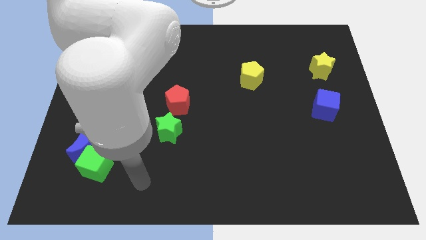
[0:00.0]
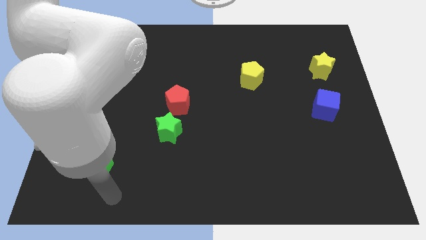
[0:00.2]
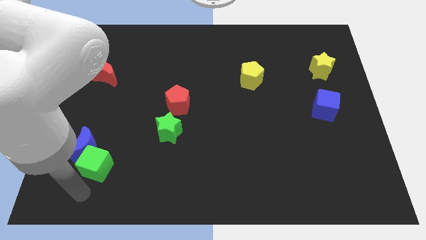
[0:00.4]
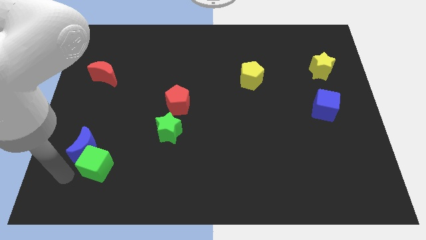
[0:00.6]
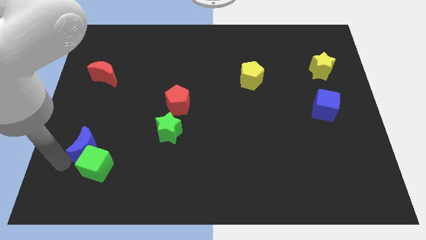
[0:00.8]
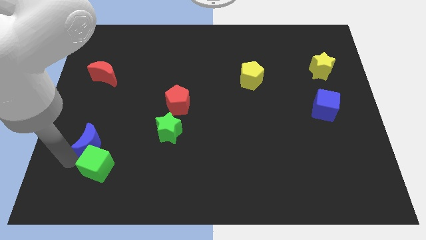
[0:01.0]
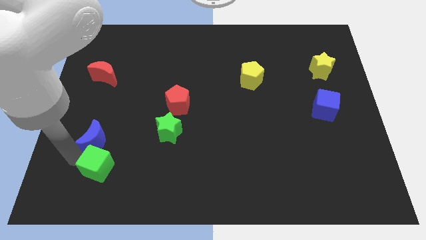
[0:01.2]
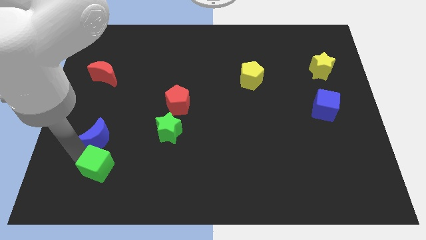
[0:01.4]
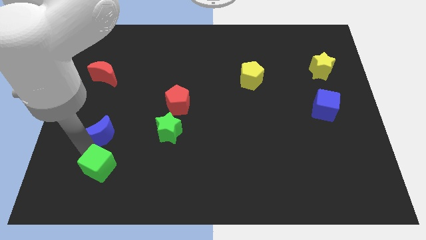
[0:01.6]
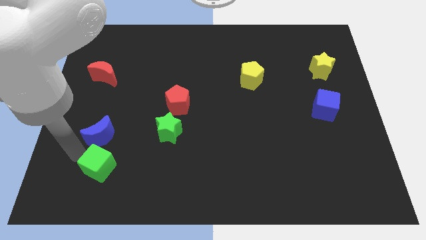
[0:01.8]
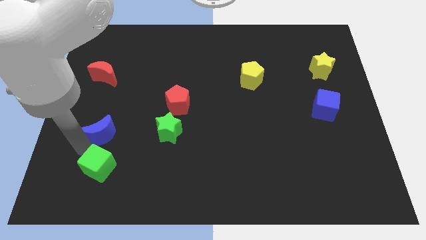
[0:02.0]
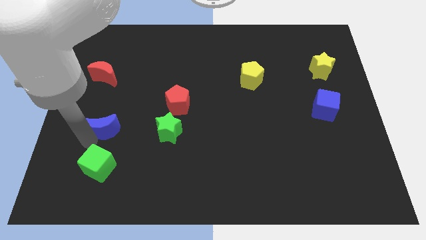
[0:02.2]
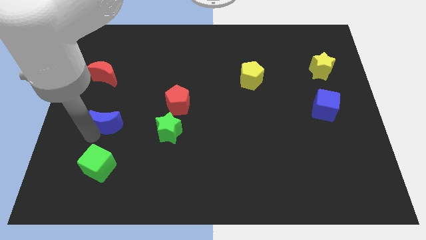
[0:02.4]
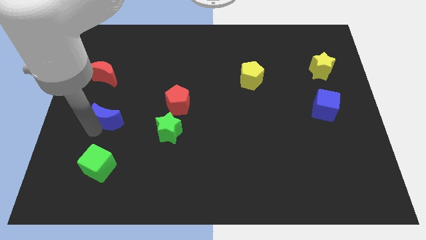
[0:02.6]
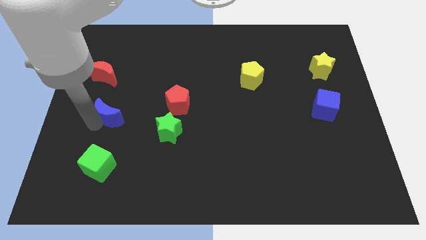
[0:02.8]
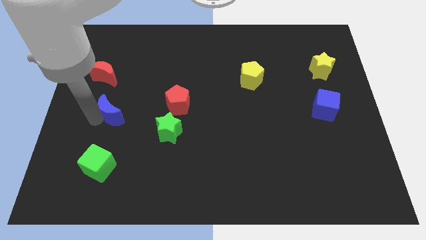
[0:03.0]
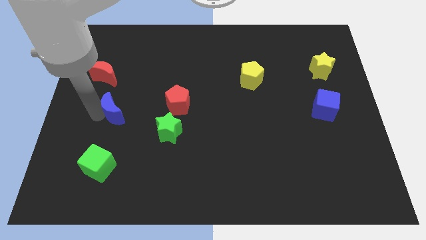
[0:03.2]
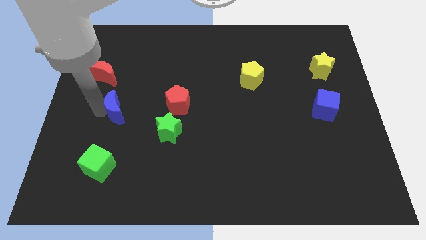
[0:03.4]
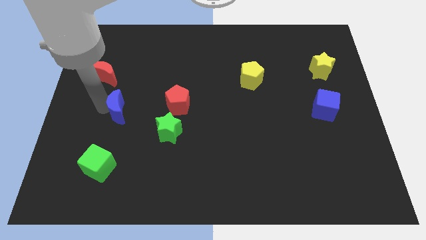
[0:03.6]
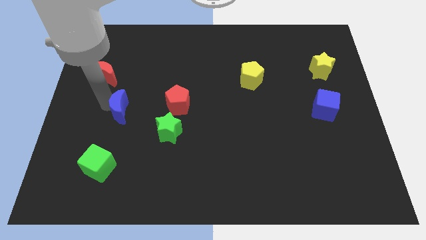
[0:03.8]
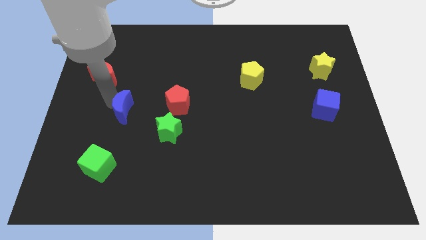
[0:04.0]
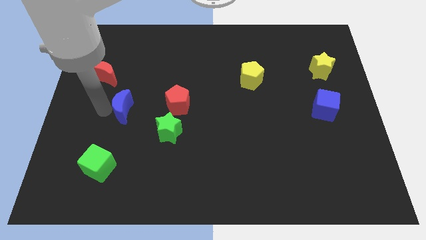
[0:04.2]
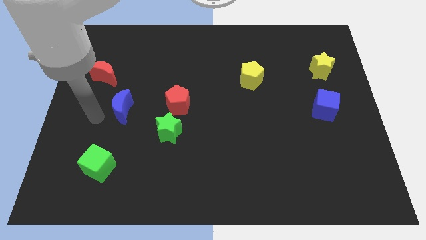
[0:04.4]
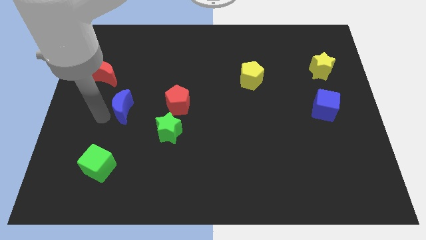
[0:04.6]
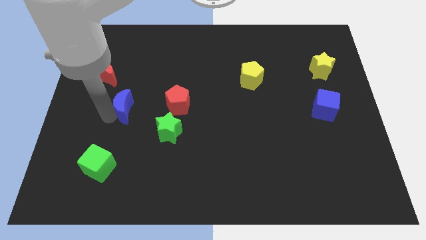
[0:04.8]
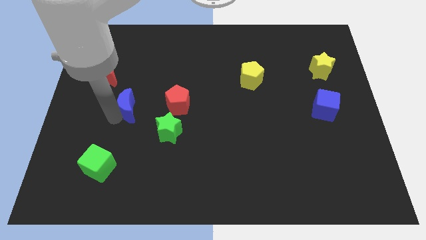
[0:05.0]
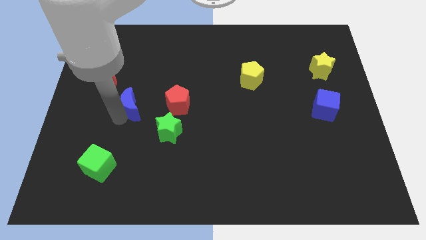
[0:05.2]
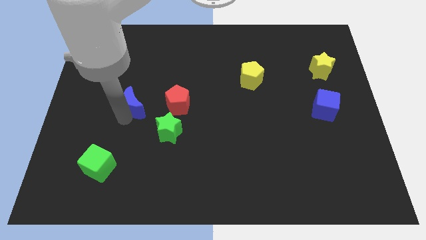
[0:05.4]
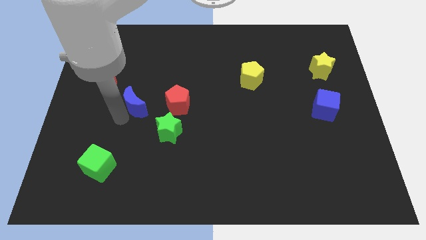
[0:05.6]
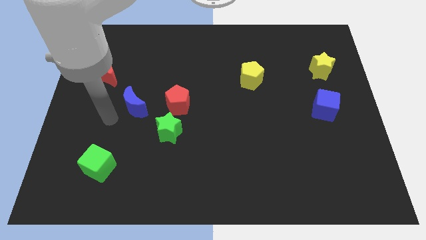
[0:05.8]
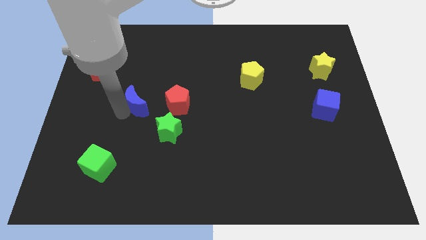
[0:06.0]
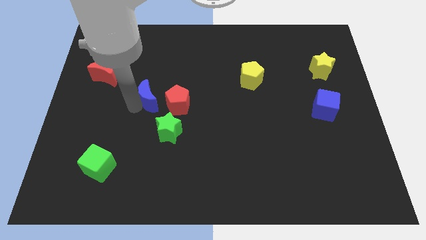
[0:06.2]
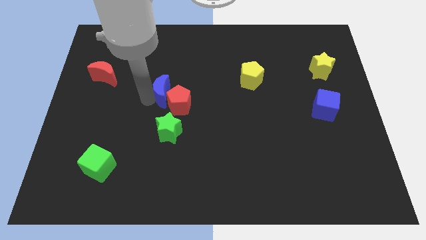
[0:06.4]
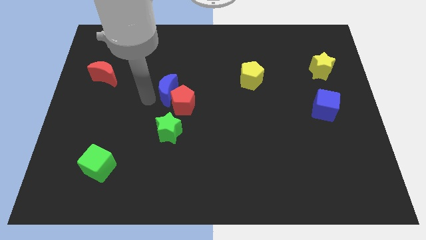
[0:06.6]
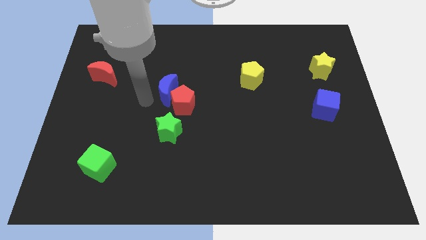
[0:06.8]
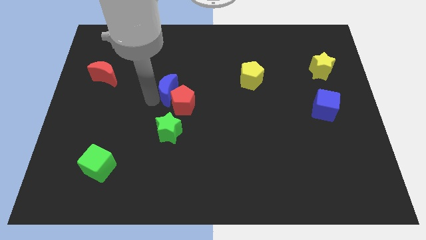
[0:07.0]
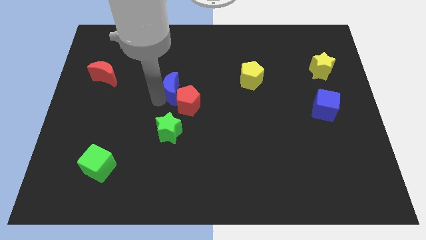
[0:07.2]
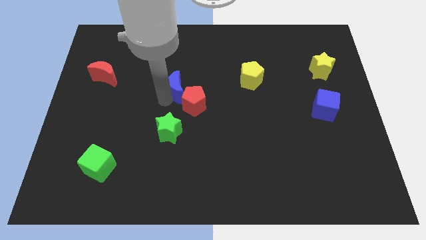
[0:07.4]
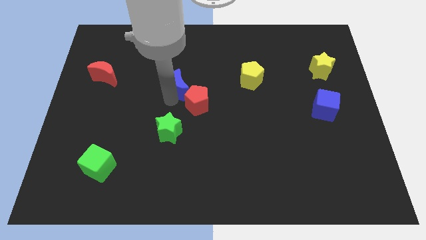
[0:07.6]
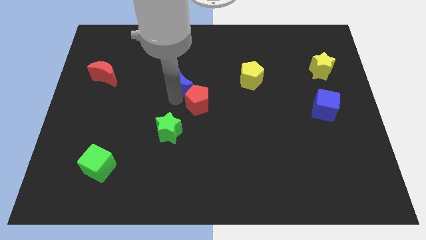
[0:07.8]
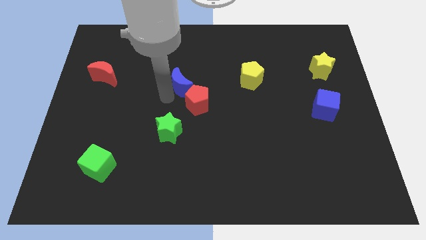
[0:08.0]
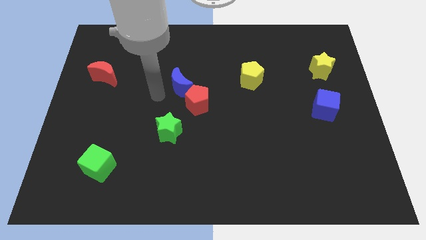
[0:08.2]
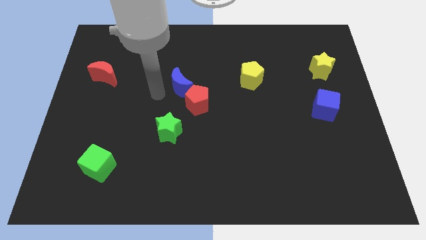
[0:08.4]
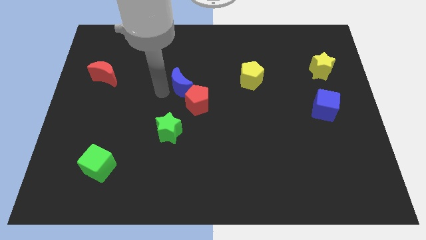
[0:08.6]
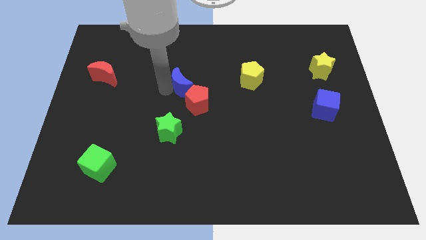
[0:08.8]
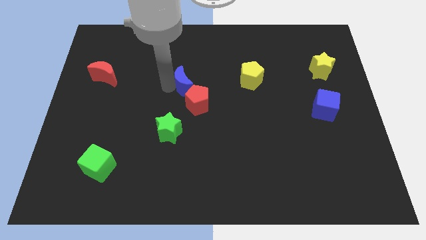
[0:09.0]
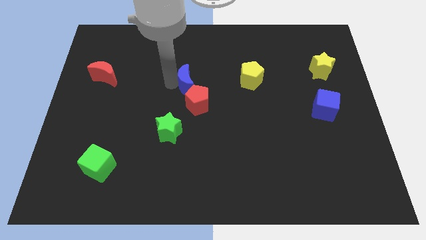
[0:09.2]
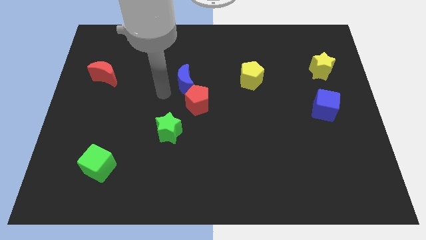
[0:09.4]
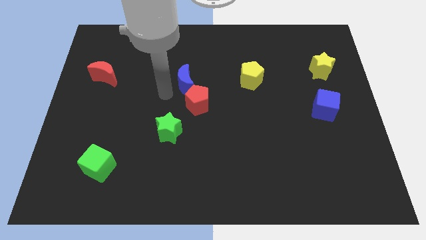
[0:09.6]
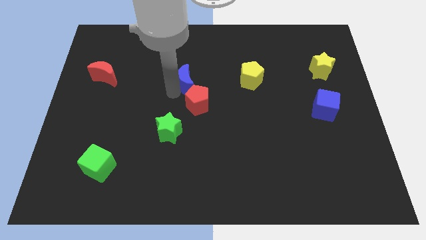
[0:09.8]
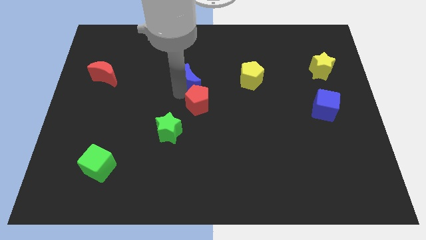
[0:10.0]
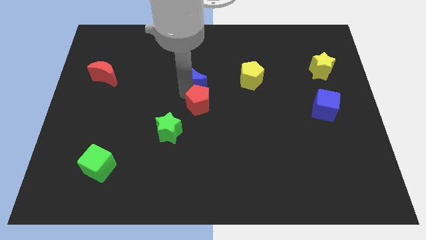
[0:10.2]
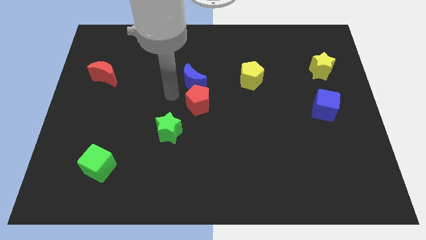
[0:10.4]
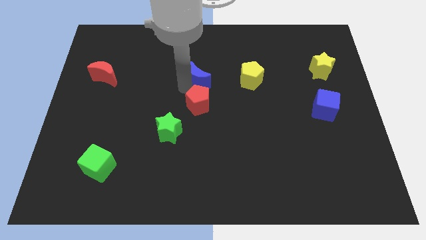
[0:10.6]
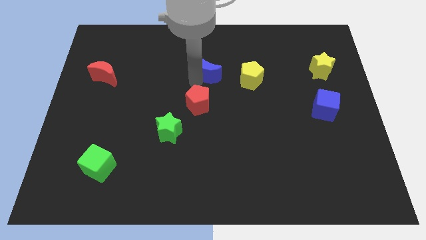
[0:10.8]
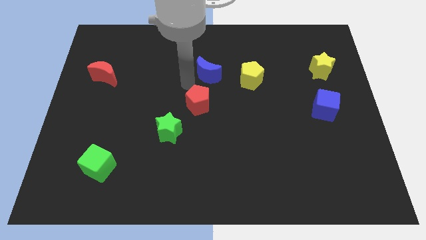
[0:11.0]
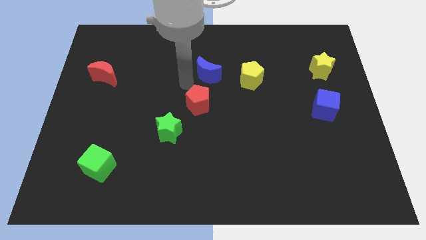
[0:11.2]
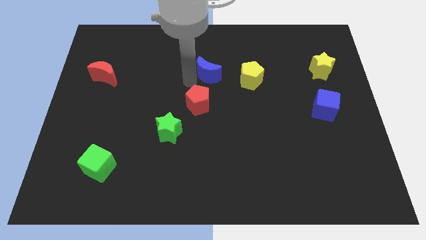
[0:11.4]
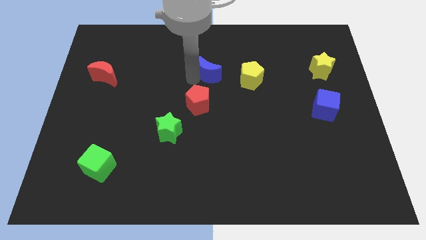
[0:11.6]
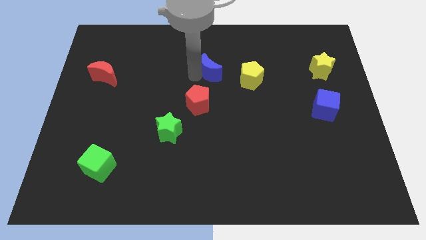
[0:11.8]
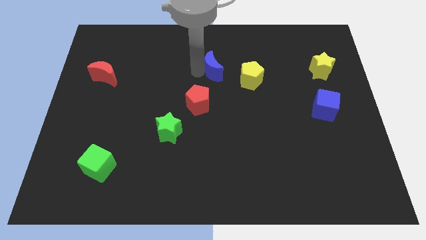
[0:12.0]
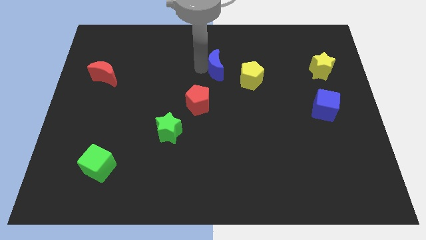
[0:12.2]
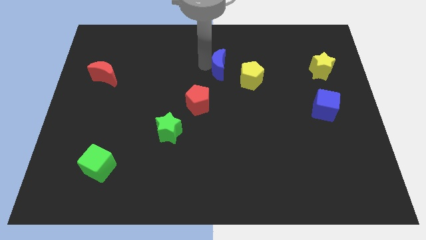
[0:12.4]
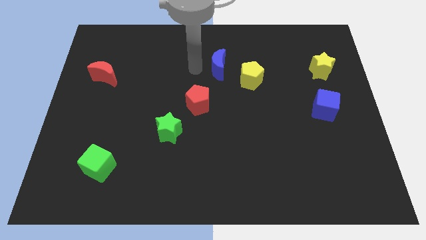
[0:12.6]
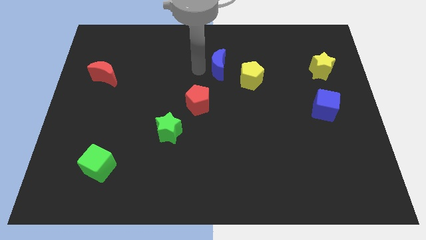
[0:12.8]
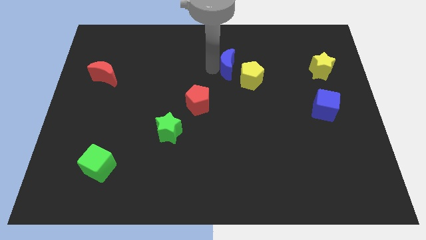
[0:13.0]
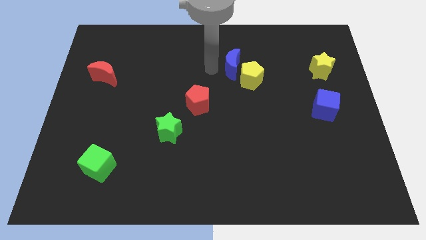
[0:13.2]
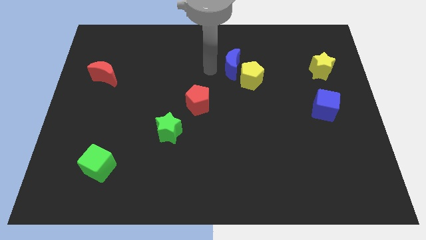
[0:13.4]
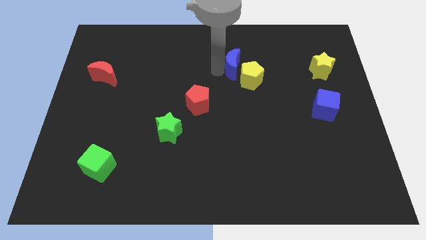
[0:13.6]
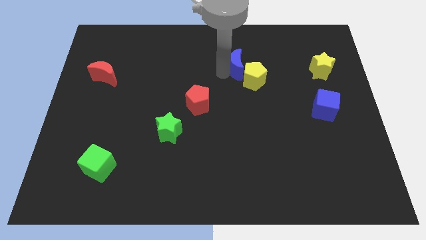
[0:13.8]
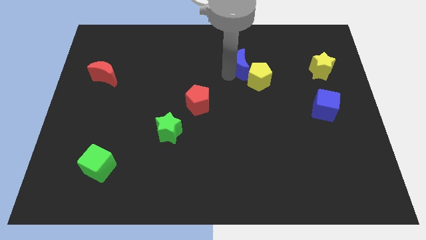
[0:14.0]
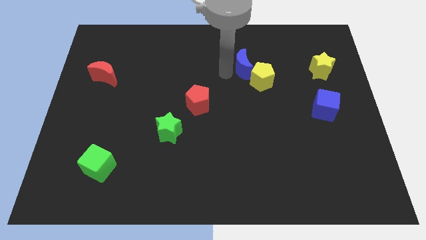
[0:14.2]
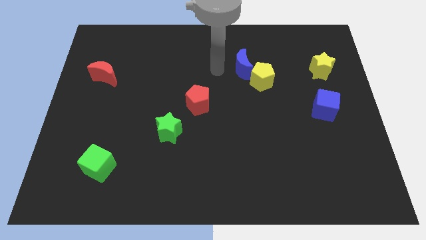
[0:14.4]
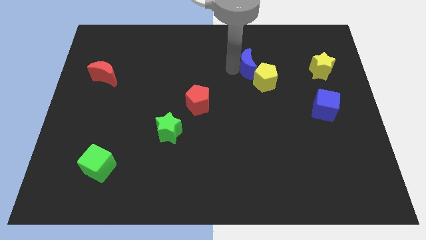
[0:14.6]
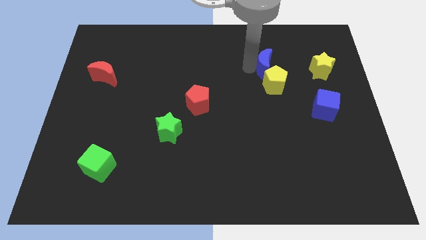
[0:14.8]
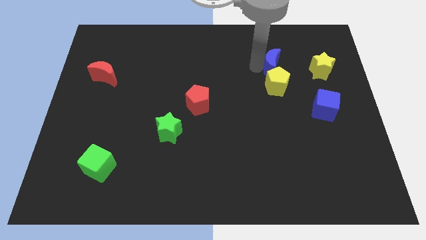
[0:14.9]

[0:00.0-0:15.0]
move the blue moon diagonally up and to the right of the yellow pentagon
